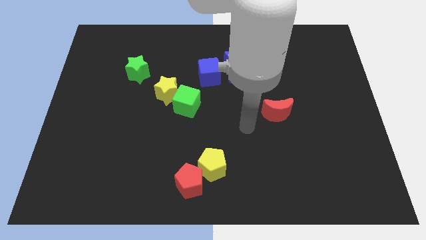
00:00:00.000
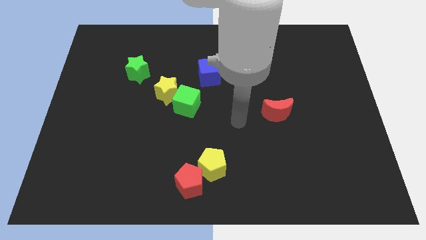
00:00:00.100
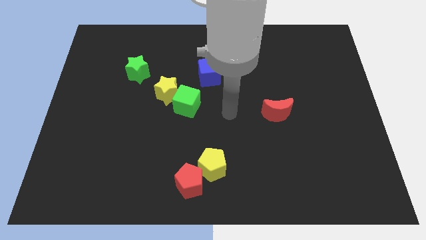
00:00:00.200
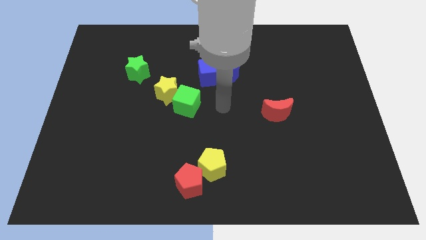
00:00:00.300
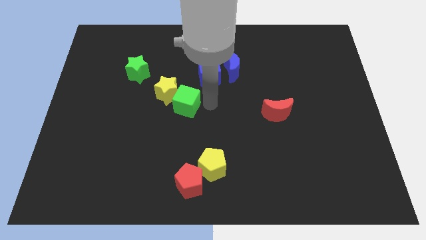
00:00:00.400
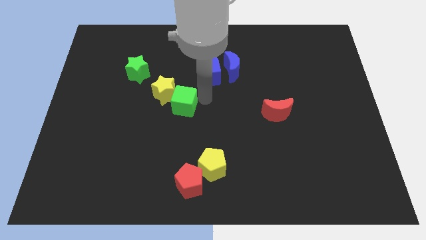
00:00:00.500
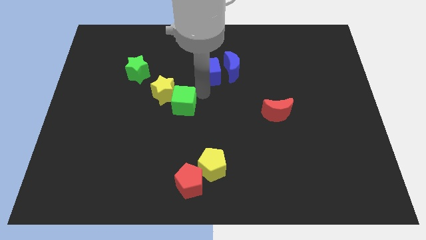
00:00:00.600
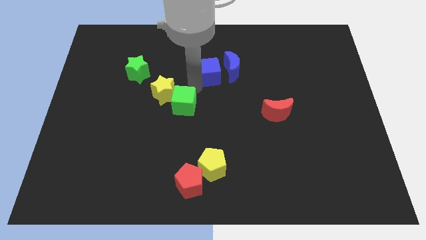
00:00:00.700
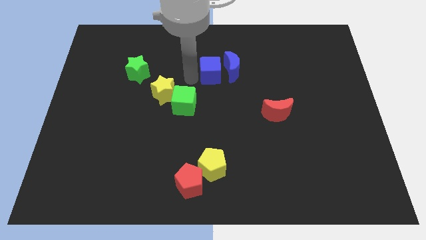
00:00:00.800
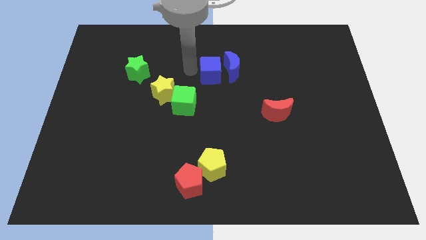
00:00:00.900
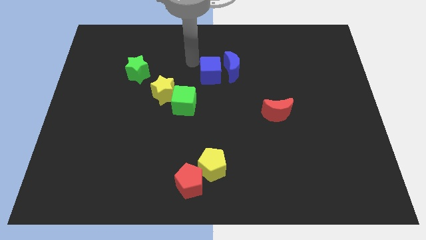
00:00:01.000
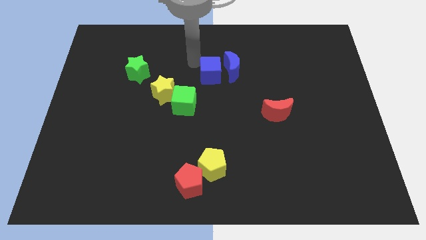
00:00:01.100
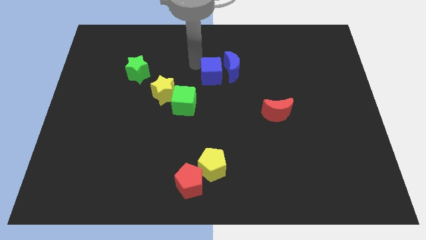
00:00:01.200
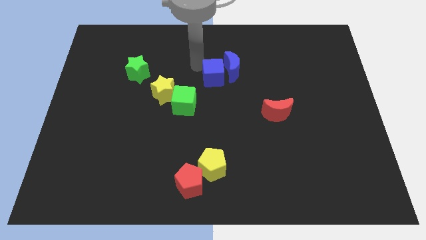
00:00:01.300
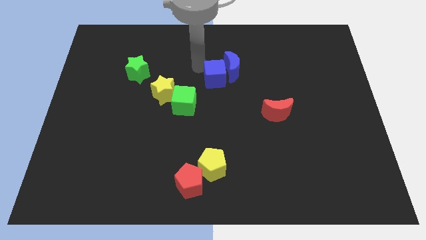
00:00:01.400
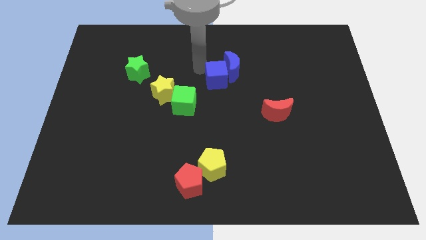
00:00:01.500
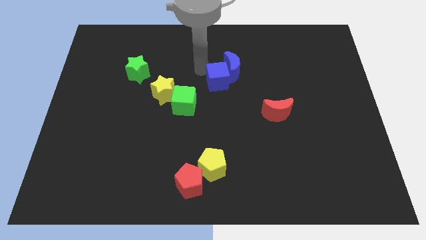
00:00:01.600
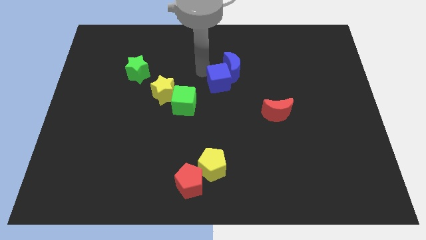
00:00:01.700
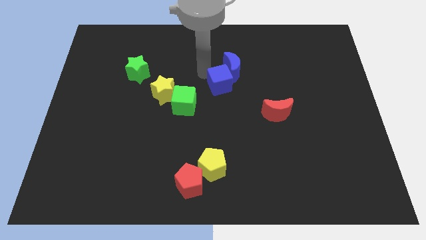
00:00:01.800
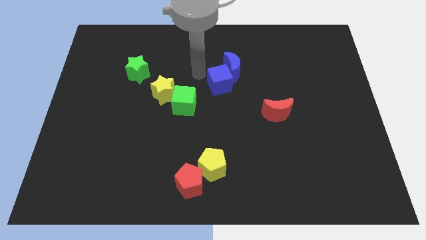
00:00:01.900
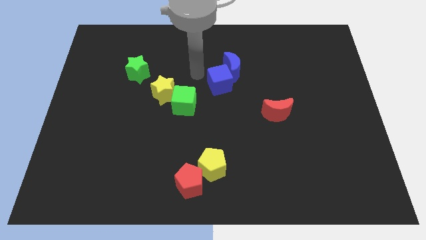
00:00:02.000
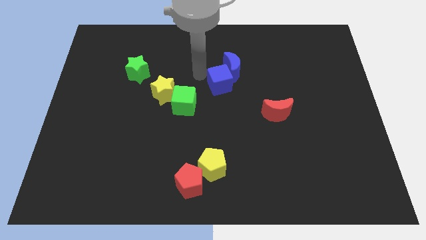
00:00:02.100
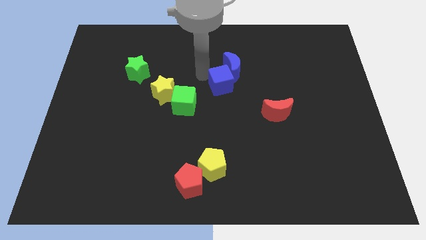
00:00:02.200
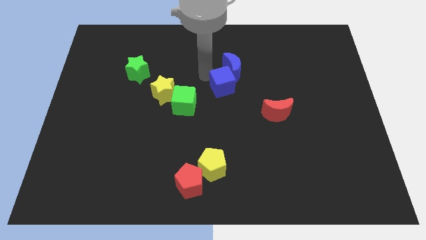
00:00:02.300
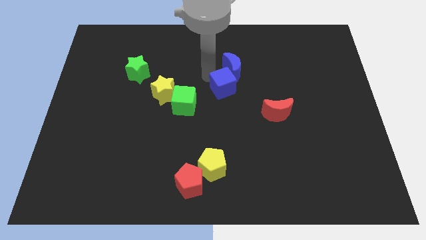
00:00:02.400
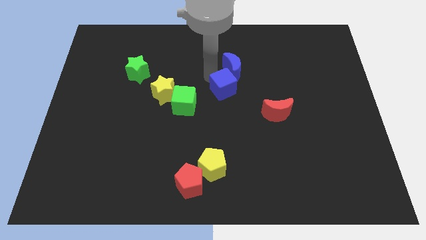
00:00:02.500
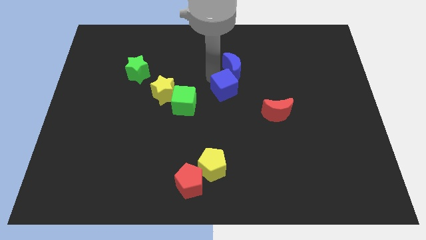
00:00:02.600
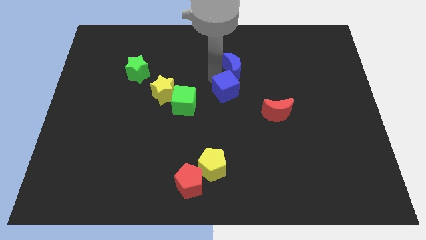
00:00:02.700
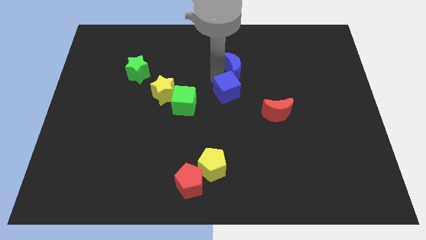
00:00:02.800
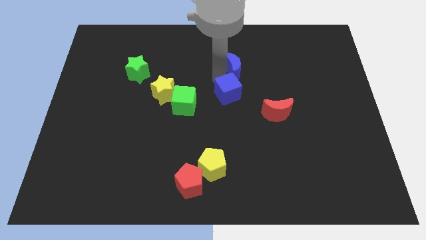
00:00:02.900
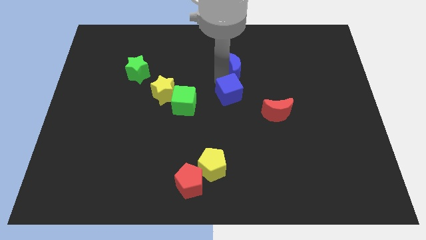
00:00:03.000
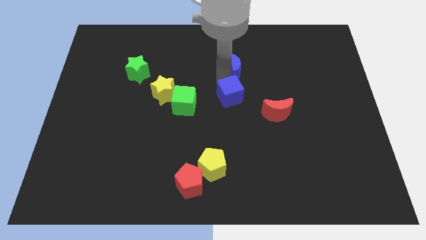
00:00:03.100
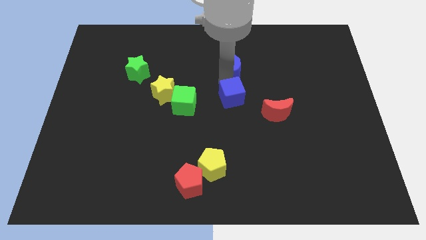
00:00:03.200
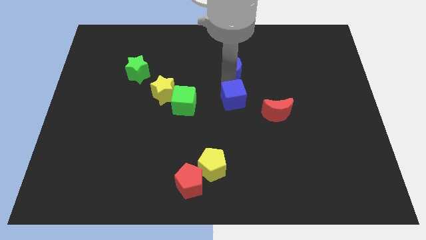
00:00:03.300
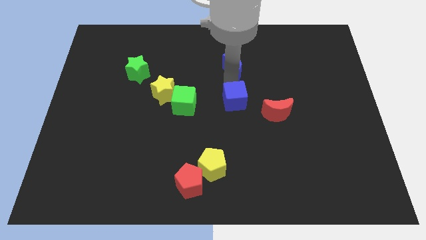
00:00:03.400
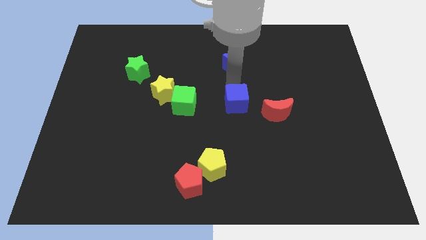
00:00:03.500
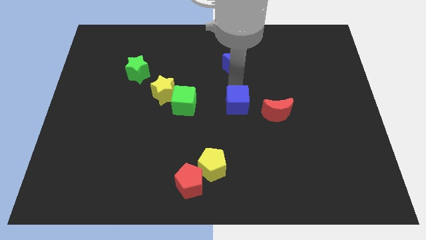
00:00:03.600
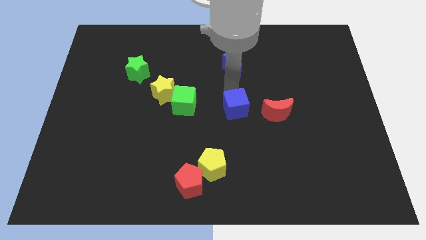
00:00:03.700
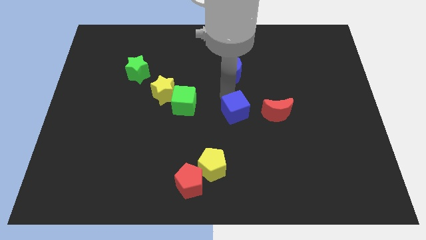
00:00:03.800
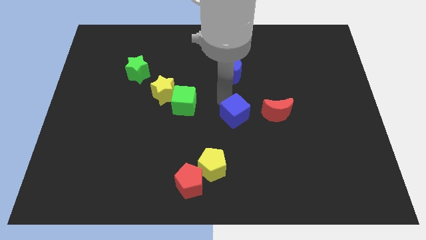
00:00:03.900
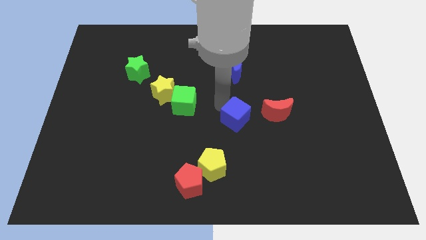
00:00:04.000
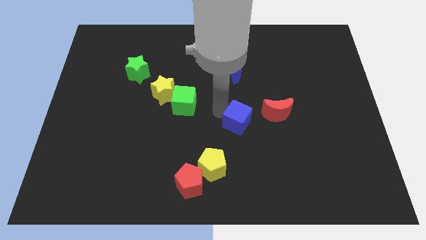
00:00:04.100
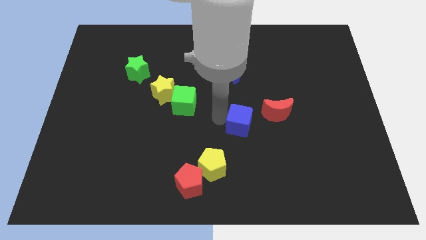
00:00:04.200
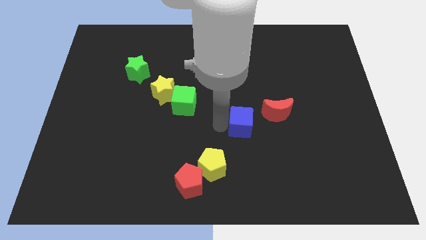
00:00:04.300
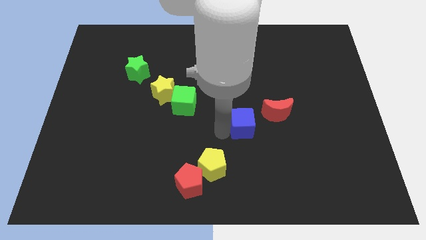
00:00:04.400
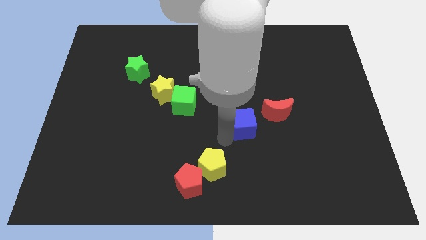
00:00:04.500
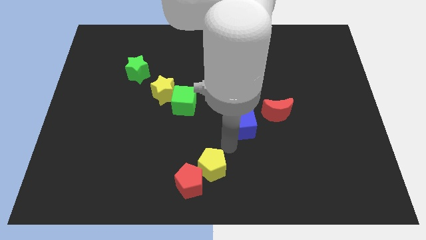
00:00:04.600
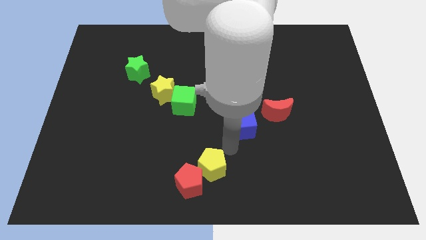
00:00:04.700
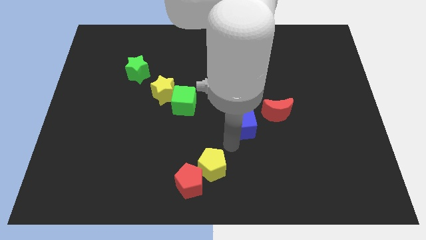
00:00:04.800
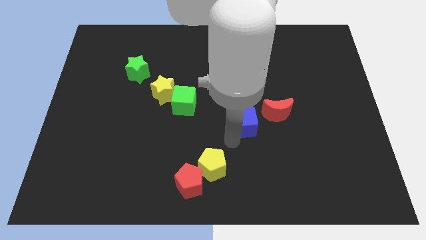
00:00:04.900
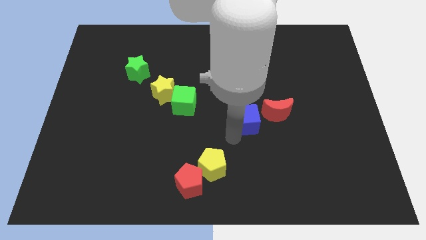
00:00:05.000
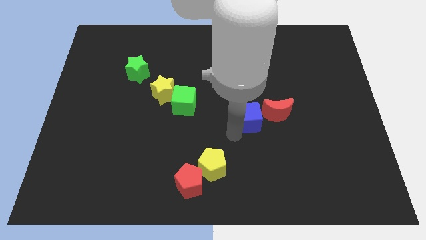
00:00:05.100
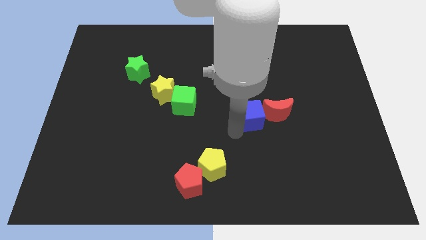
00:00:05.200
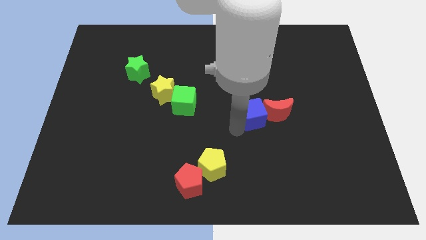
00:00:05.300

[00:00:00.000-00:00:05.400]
push the blue cube to the red moon

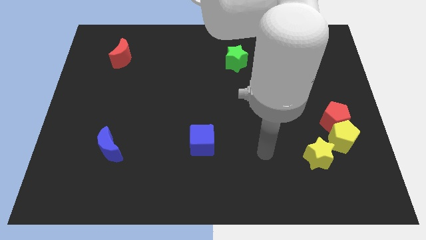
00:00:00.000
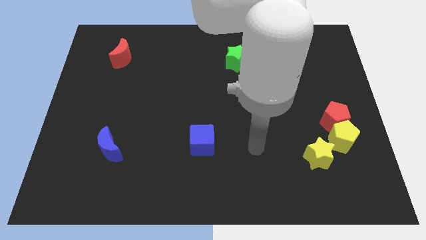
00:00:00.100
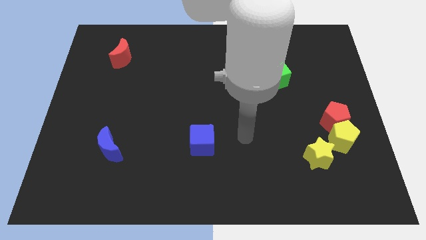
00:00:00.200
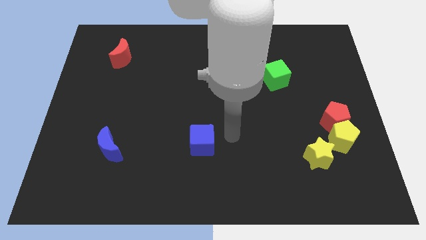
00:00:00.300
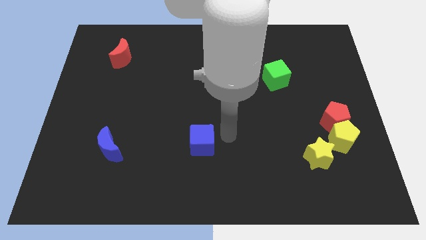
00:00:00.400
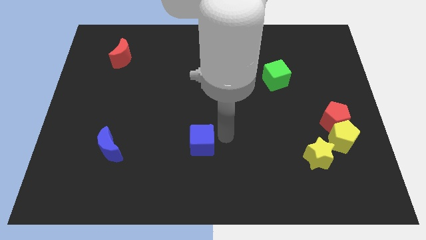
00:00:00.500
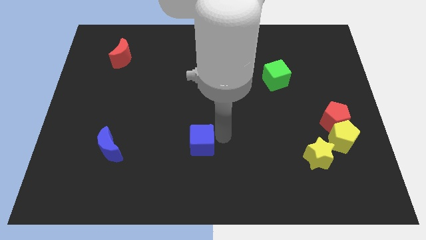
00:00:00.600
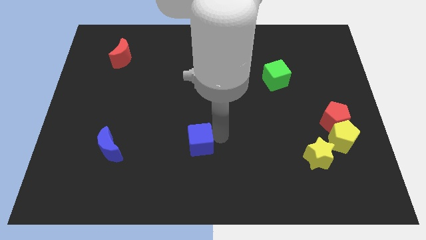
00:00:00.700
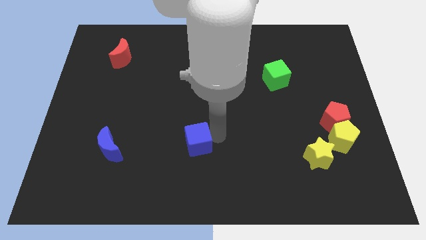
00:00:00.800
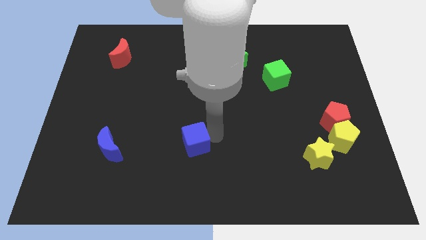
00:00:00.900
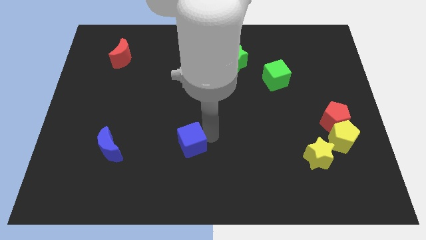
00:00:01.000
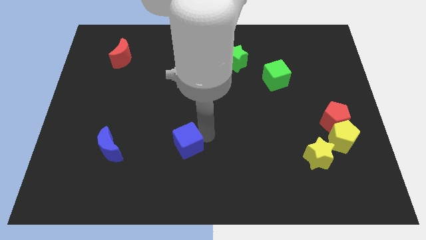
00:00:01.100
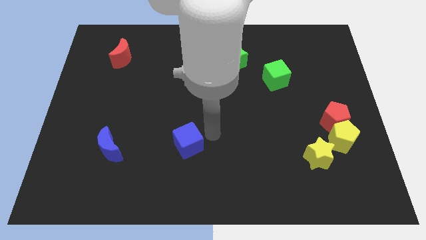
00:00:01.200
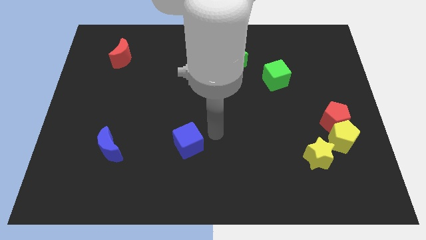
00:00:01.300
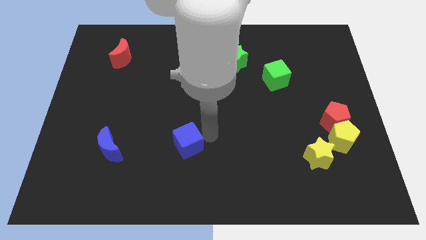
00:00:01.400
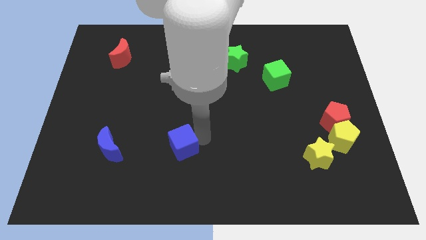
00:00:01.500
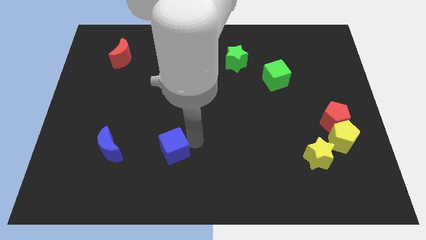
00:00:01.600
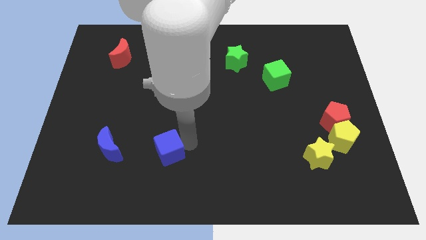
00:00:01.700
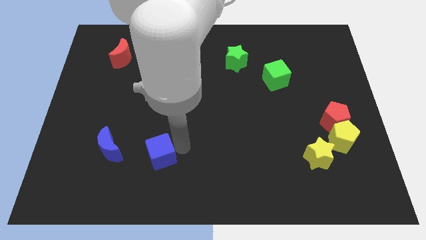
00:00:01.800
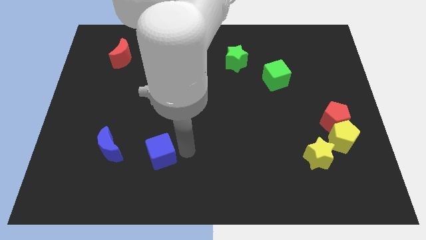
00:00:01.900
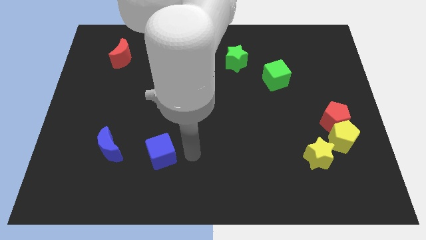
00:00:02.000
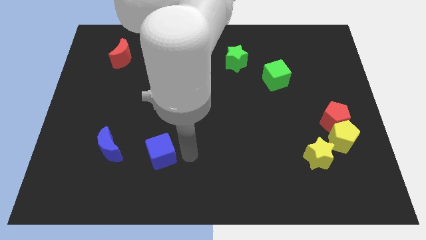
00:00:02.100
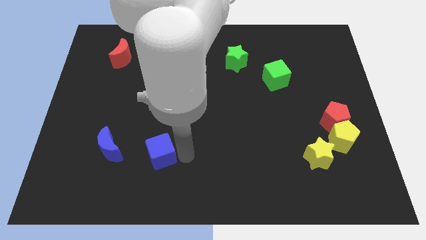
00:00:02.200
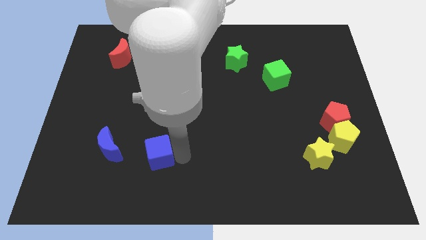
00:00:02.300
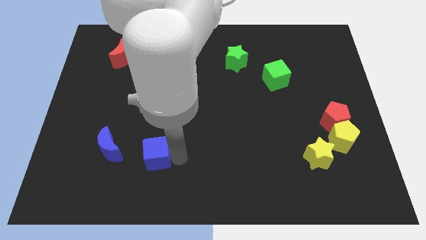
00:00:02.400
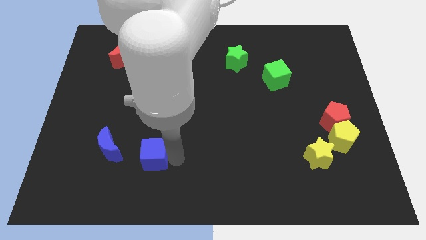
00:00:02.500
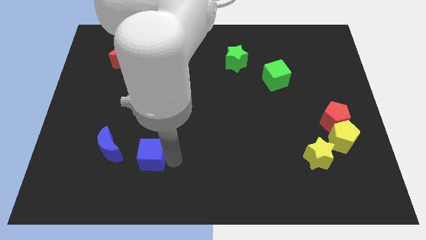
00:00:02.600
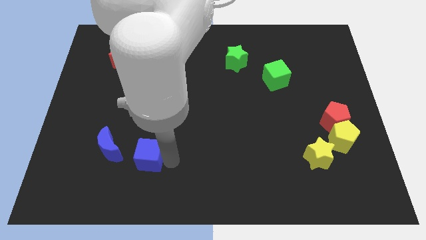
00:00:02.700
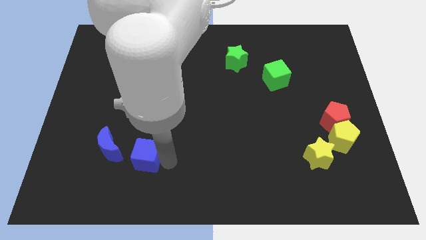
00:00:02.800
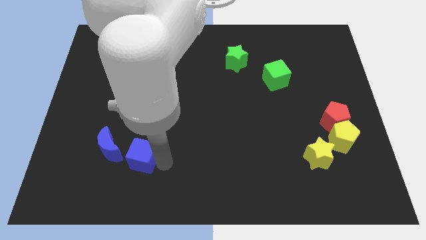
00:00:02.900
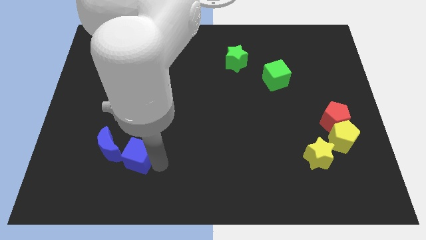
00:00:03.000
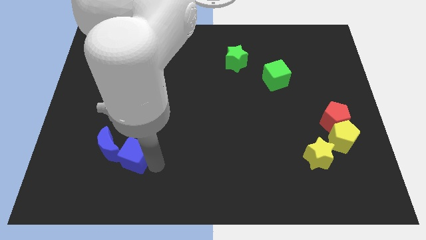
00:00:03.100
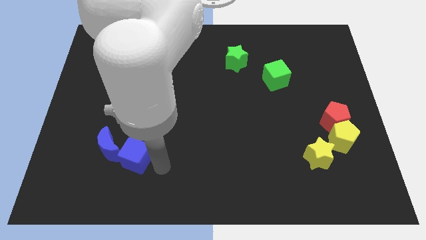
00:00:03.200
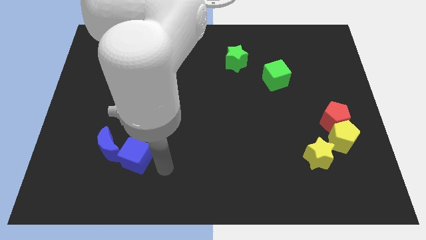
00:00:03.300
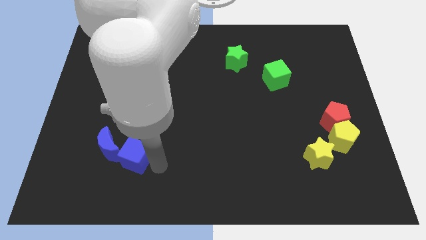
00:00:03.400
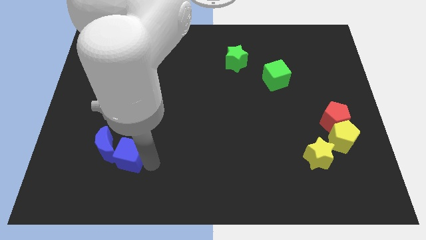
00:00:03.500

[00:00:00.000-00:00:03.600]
slide the blue cube next to the blue moon
